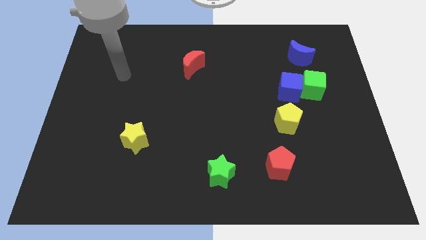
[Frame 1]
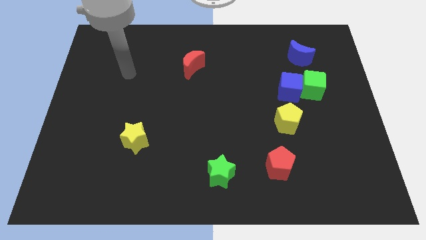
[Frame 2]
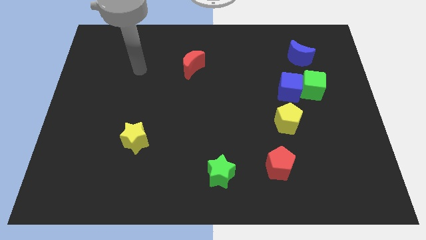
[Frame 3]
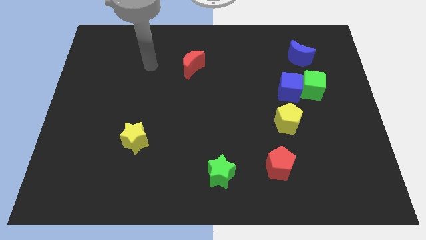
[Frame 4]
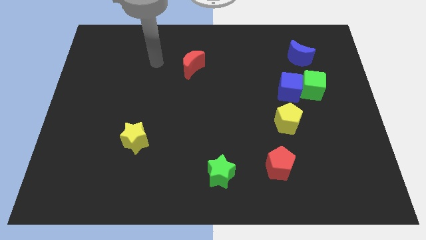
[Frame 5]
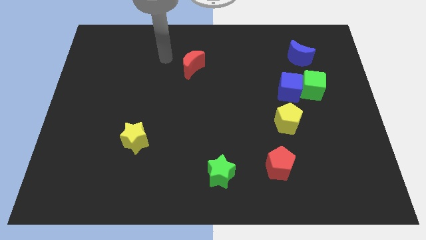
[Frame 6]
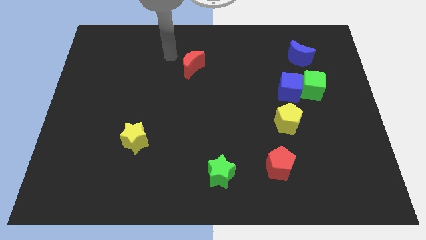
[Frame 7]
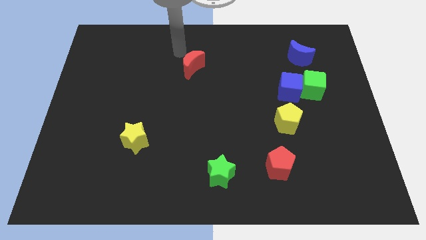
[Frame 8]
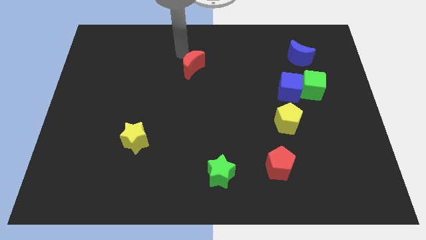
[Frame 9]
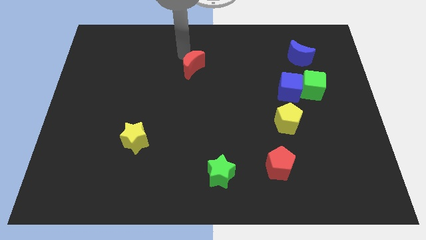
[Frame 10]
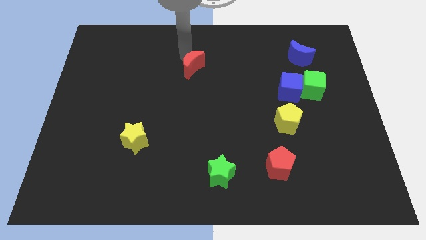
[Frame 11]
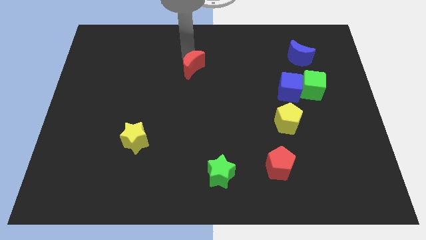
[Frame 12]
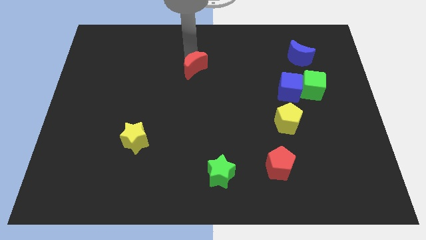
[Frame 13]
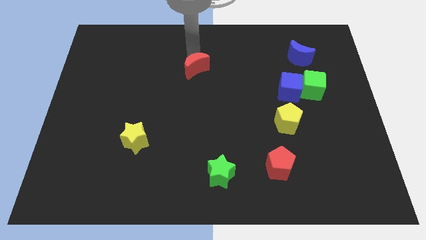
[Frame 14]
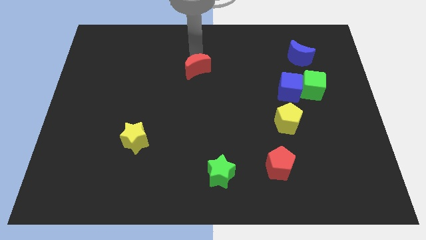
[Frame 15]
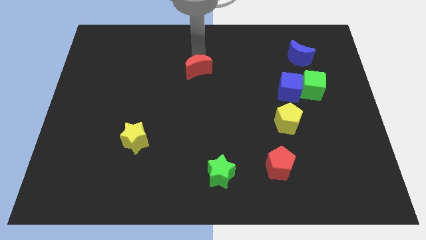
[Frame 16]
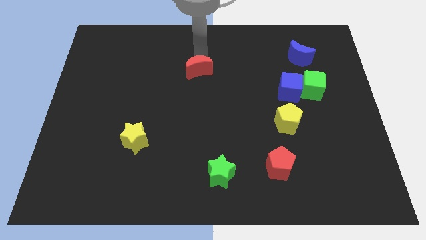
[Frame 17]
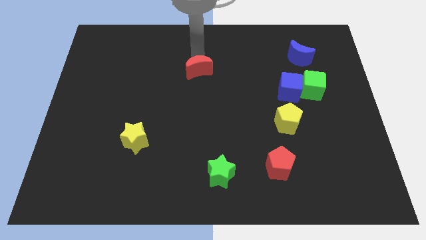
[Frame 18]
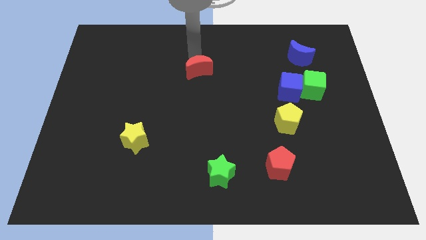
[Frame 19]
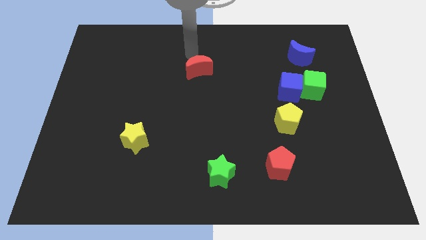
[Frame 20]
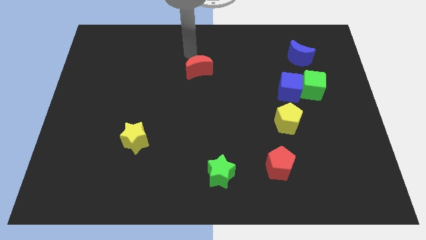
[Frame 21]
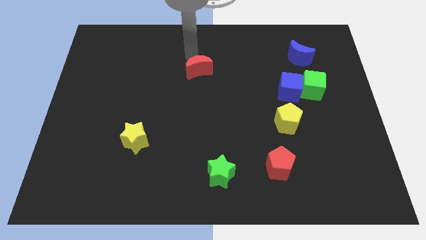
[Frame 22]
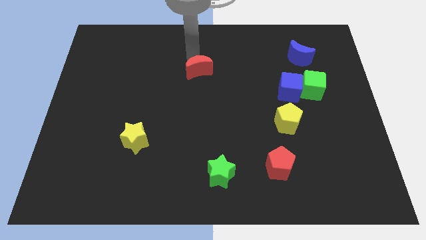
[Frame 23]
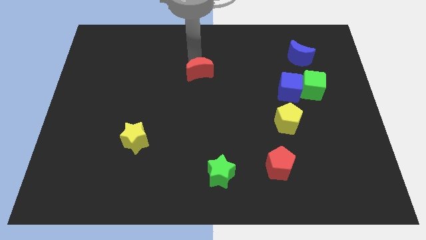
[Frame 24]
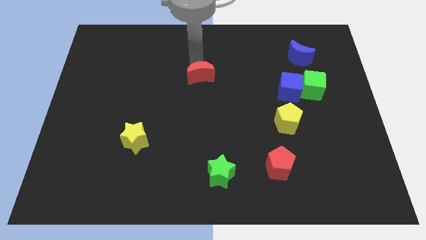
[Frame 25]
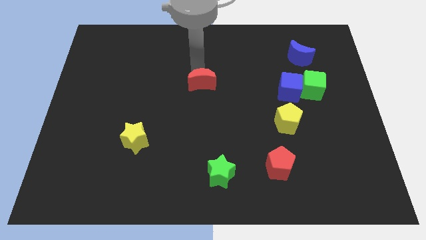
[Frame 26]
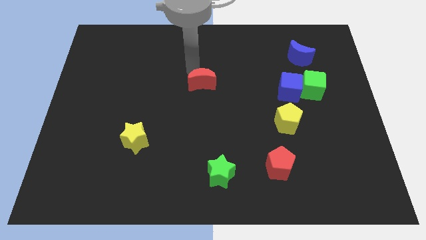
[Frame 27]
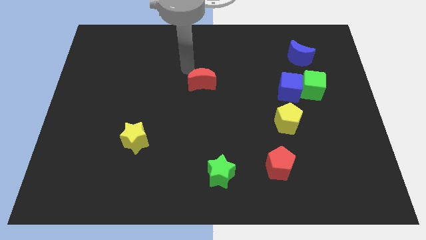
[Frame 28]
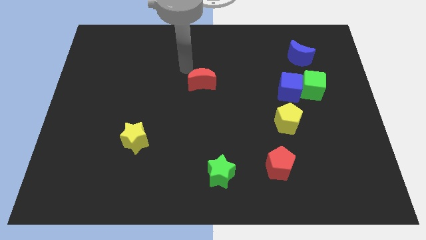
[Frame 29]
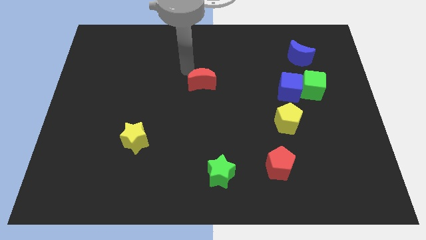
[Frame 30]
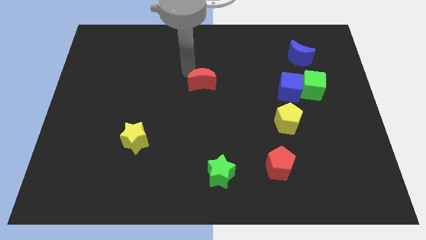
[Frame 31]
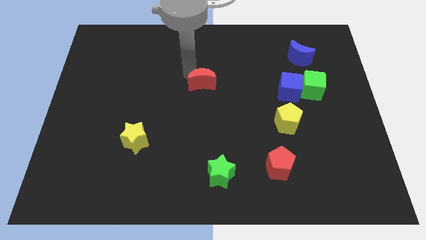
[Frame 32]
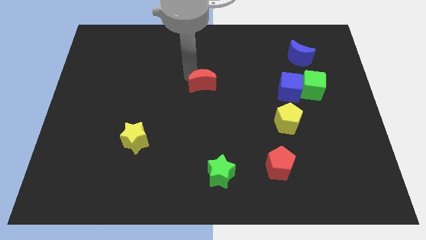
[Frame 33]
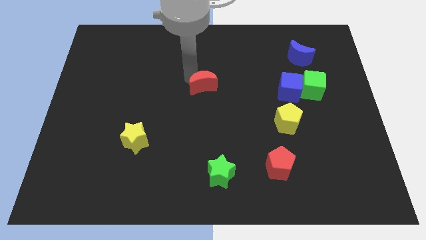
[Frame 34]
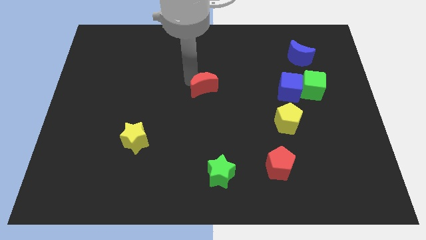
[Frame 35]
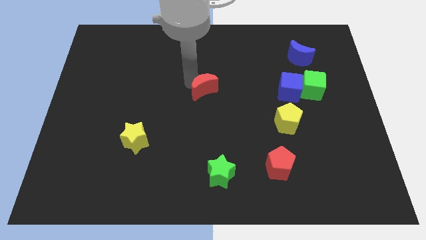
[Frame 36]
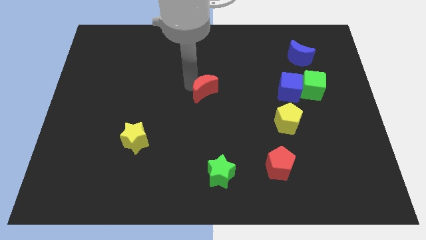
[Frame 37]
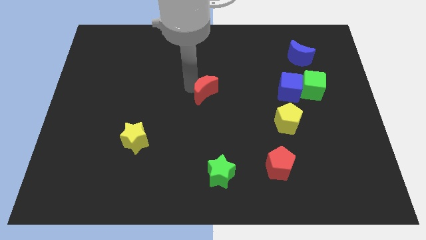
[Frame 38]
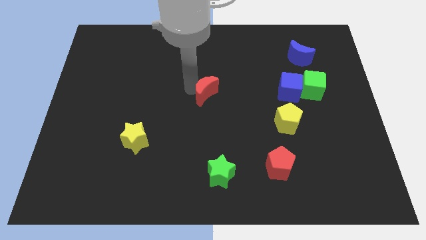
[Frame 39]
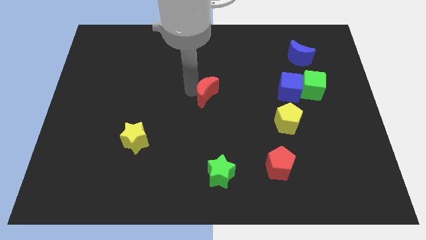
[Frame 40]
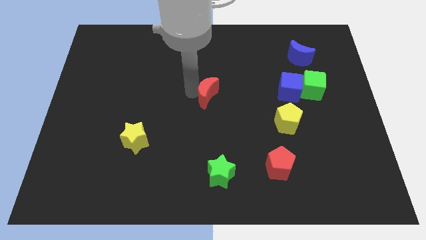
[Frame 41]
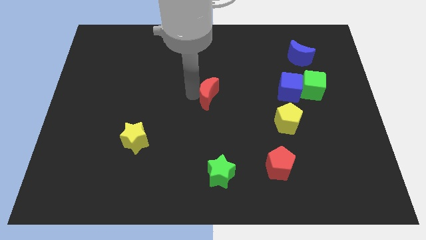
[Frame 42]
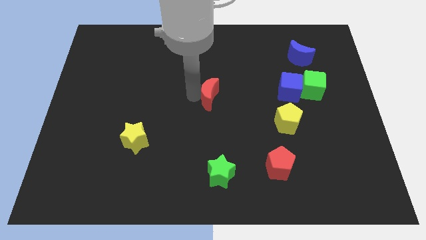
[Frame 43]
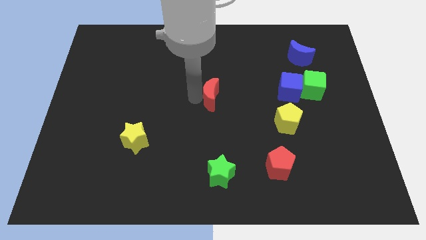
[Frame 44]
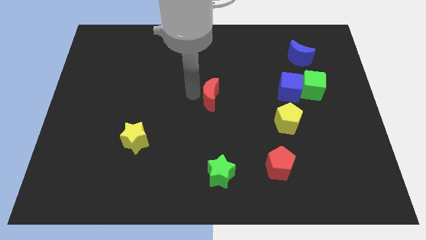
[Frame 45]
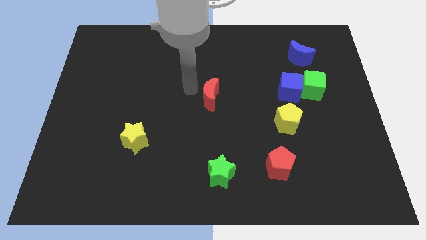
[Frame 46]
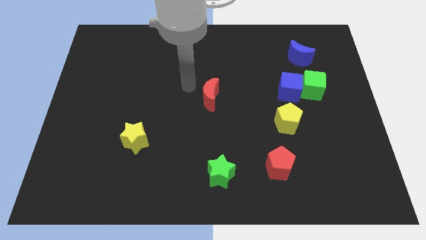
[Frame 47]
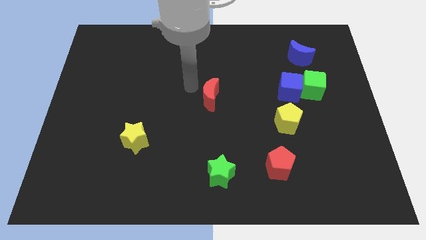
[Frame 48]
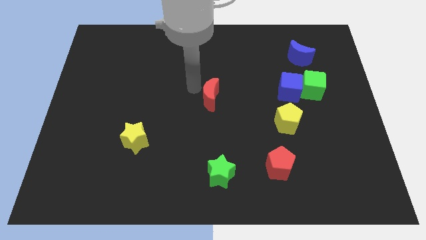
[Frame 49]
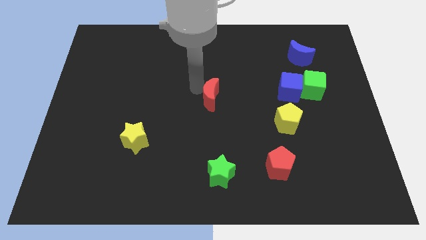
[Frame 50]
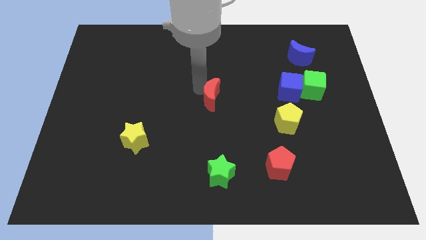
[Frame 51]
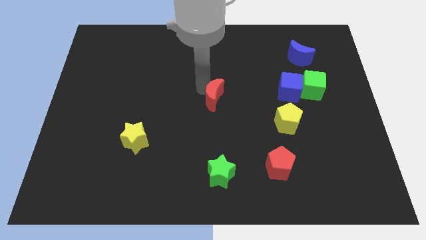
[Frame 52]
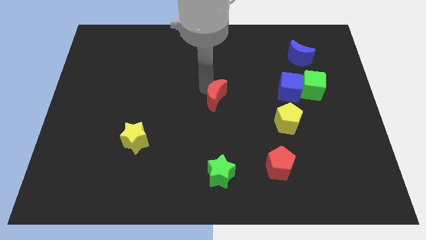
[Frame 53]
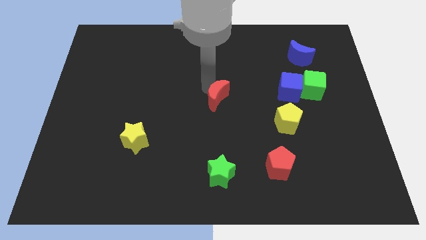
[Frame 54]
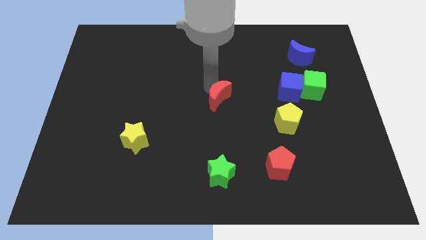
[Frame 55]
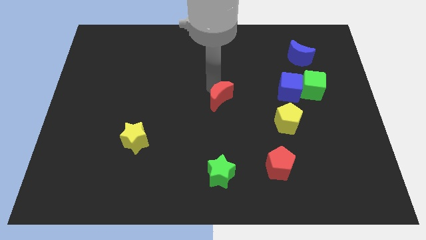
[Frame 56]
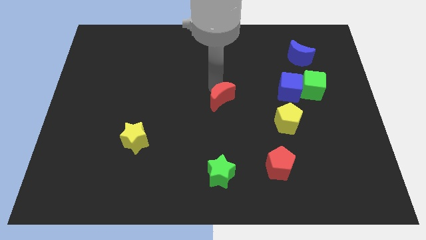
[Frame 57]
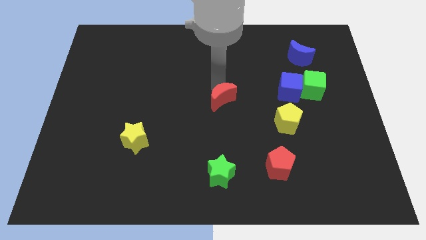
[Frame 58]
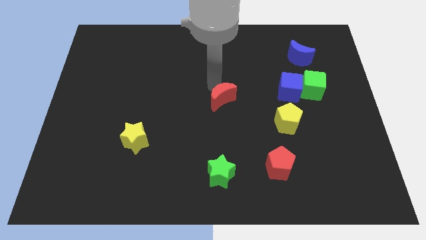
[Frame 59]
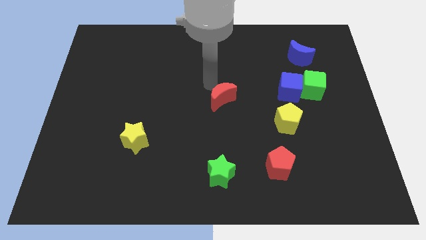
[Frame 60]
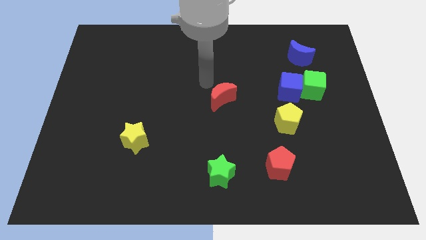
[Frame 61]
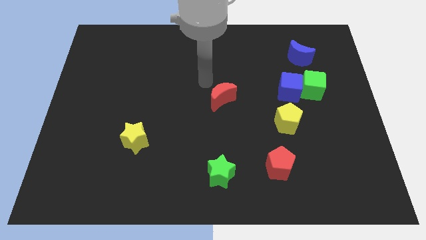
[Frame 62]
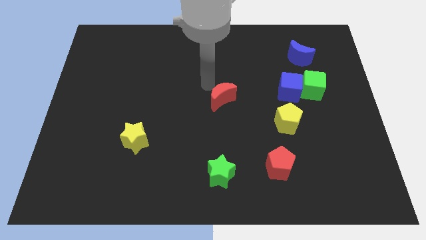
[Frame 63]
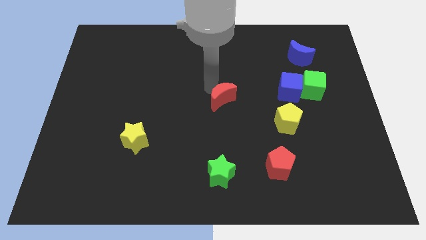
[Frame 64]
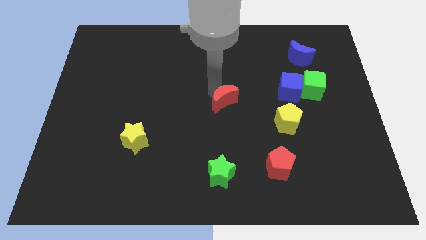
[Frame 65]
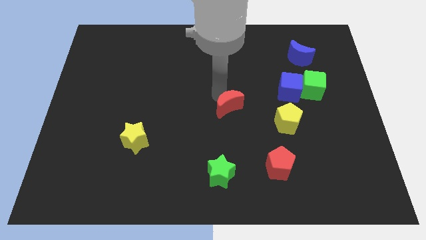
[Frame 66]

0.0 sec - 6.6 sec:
move the red moon left of the yellow pentagon

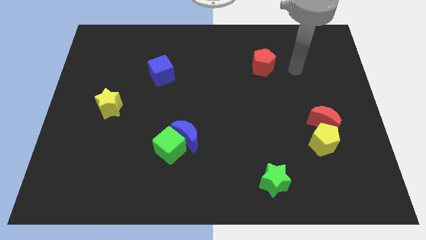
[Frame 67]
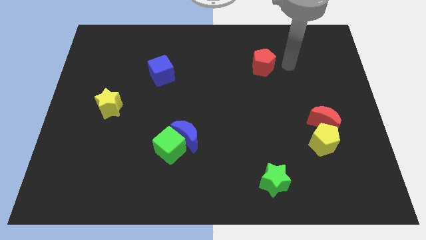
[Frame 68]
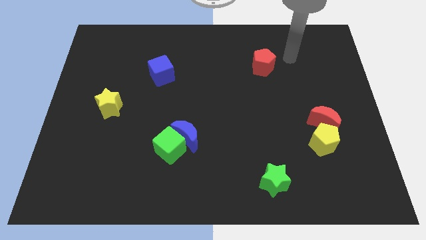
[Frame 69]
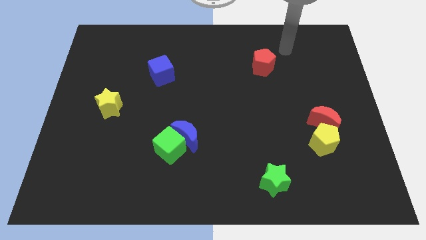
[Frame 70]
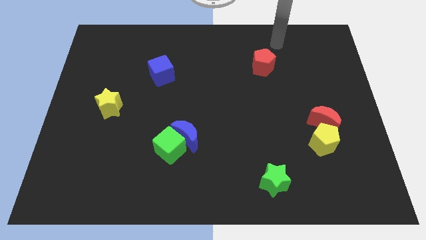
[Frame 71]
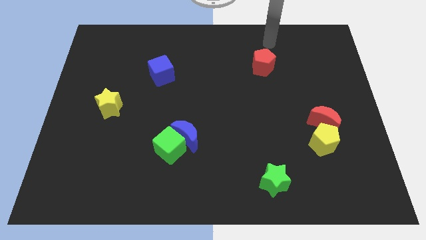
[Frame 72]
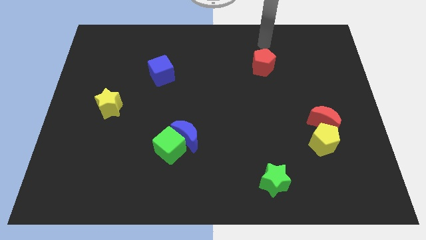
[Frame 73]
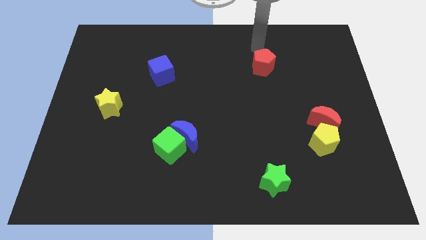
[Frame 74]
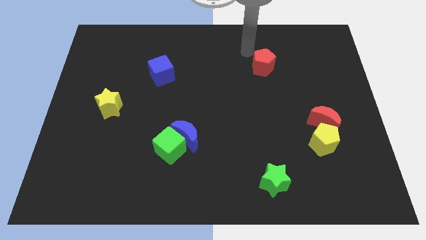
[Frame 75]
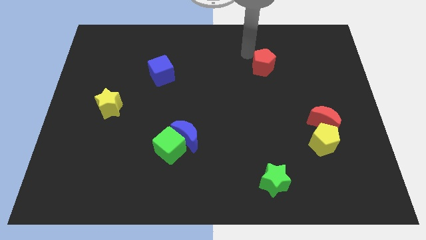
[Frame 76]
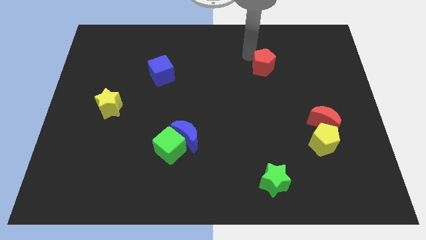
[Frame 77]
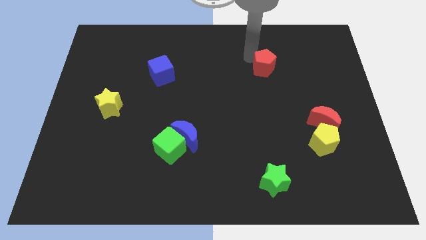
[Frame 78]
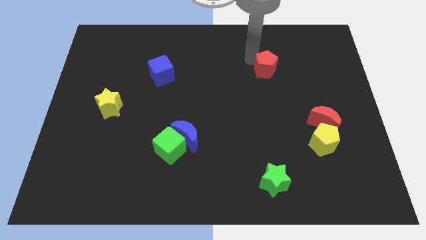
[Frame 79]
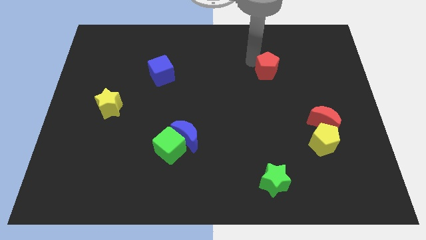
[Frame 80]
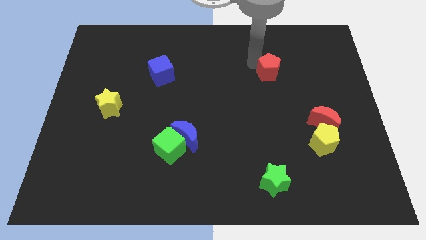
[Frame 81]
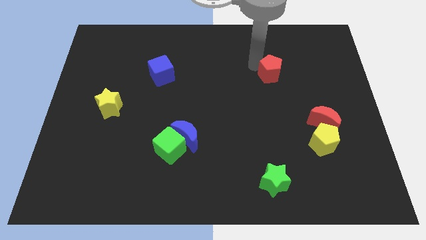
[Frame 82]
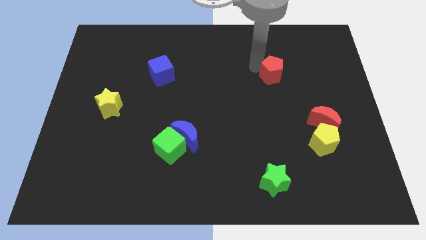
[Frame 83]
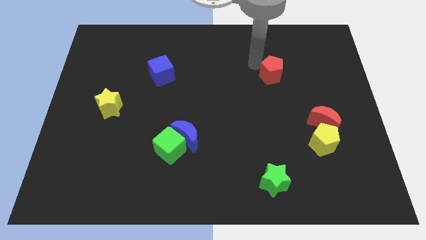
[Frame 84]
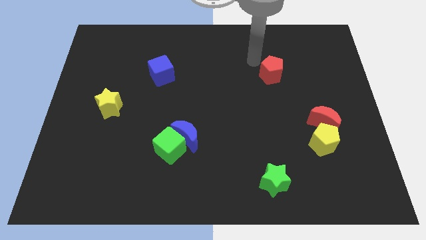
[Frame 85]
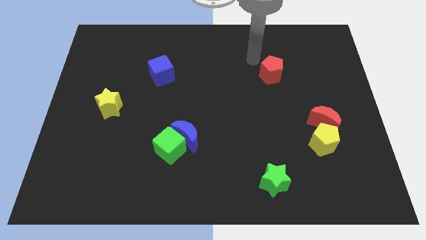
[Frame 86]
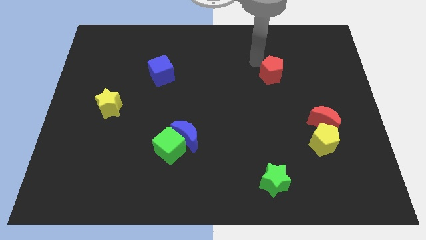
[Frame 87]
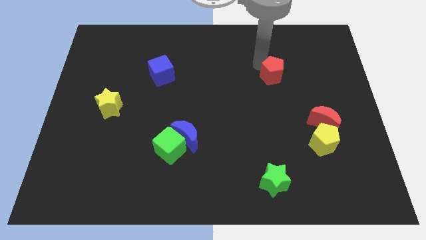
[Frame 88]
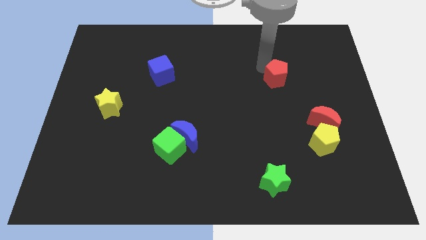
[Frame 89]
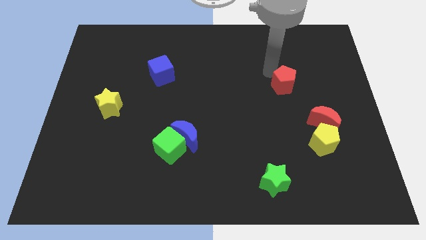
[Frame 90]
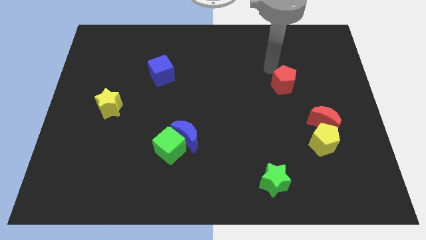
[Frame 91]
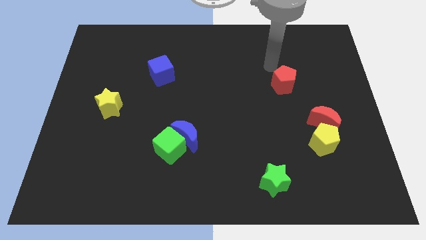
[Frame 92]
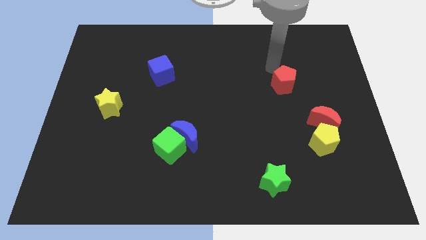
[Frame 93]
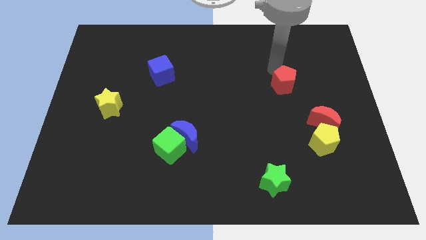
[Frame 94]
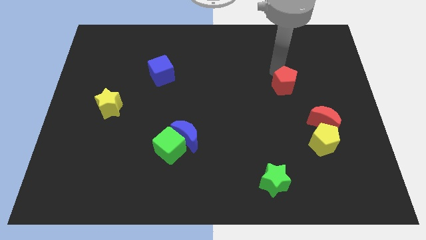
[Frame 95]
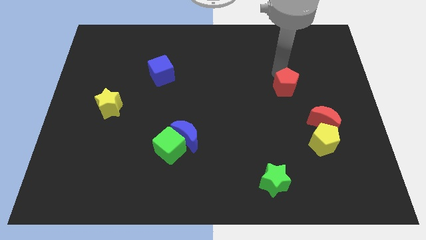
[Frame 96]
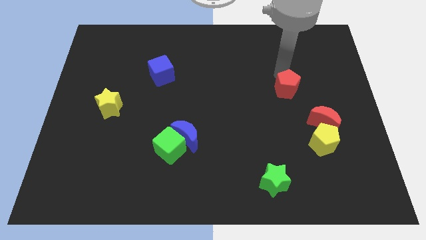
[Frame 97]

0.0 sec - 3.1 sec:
put the red pentagon to the top left side of the red moon
